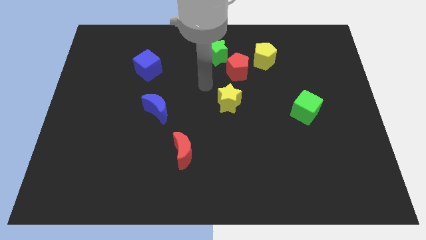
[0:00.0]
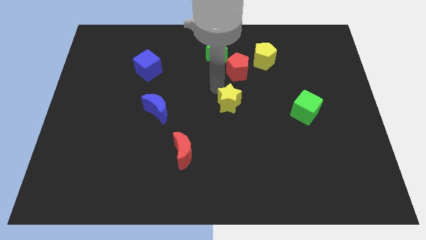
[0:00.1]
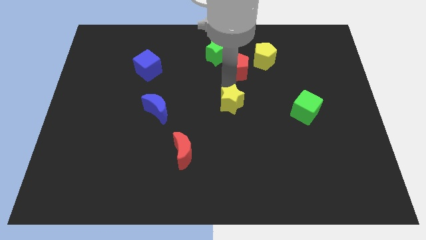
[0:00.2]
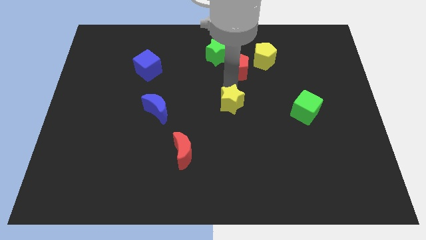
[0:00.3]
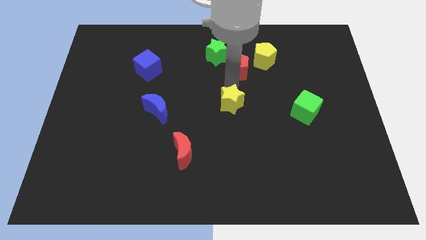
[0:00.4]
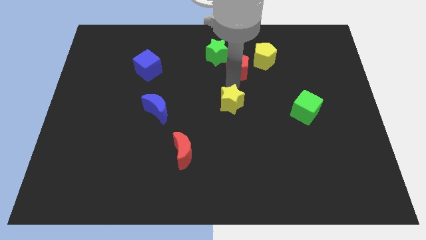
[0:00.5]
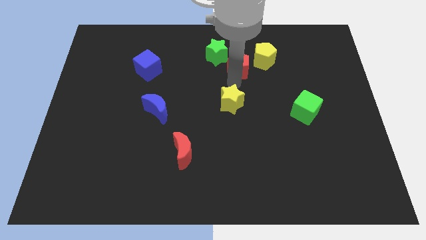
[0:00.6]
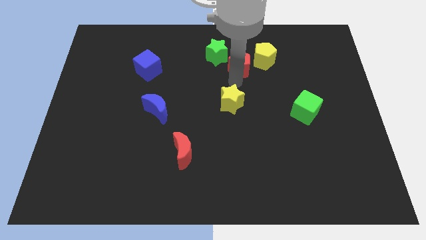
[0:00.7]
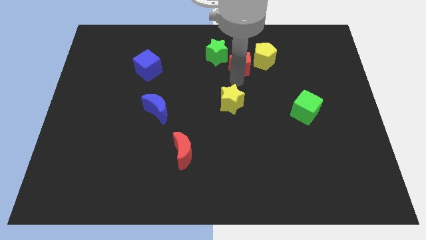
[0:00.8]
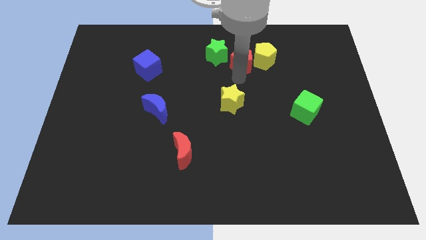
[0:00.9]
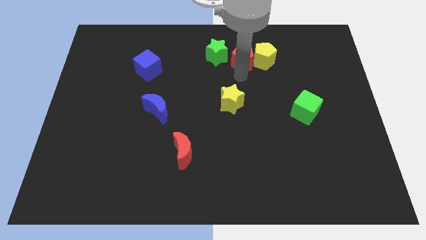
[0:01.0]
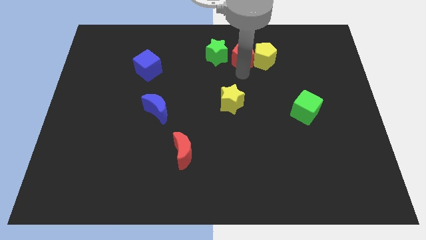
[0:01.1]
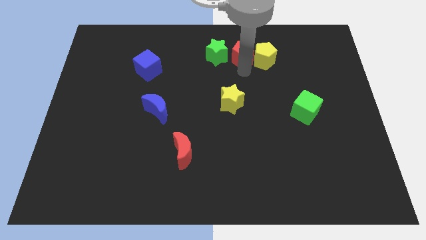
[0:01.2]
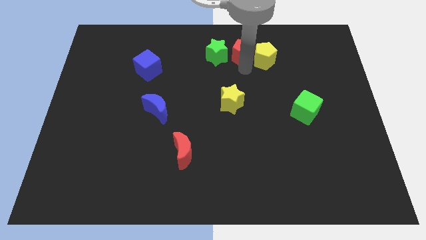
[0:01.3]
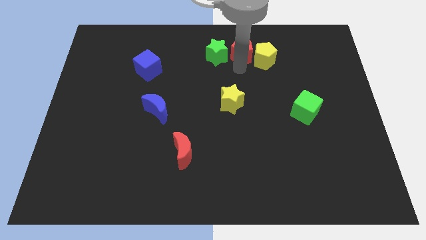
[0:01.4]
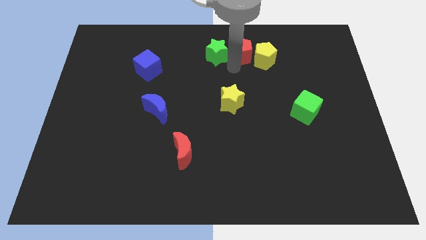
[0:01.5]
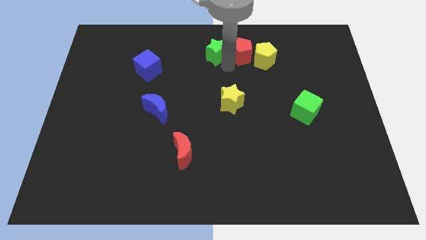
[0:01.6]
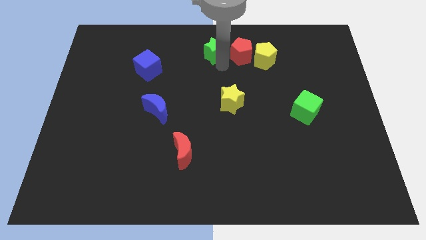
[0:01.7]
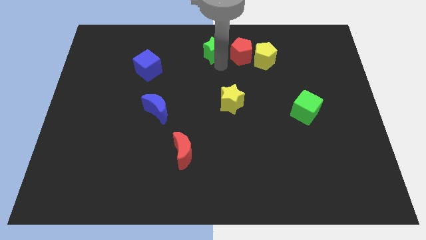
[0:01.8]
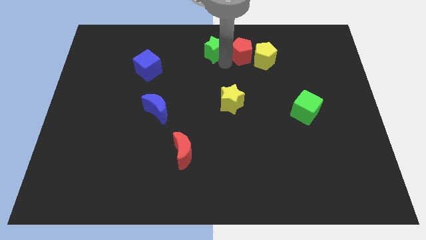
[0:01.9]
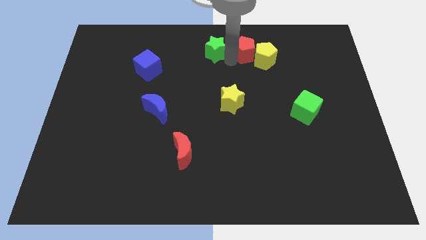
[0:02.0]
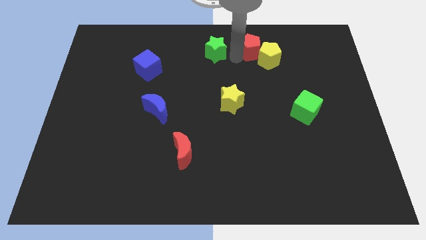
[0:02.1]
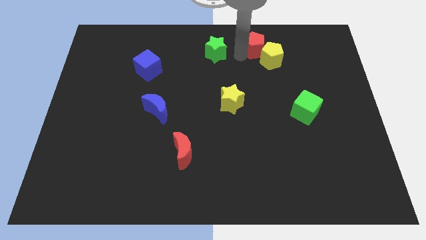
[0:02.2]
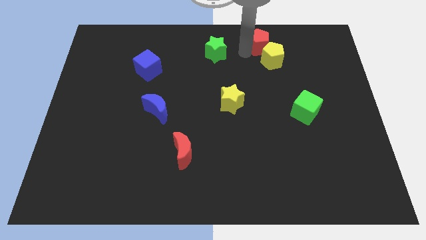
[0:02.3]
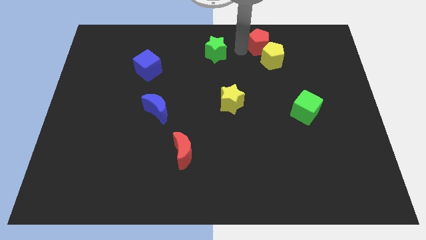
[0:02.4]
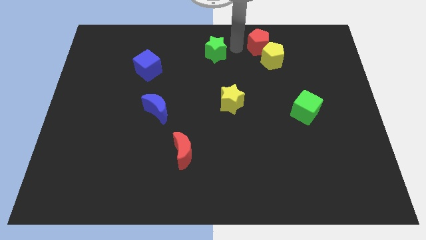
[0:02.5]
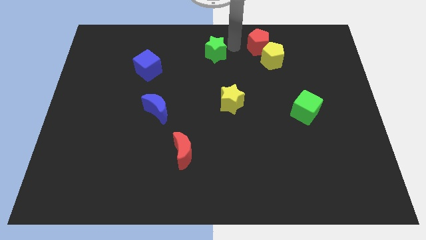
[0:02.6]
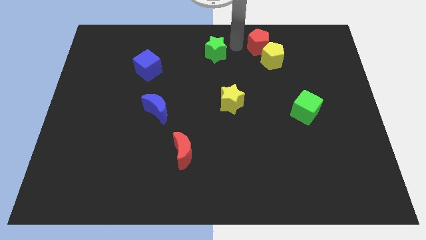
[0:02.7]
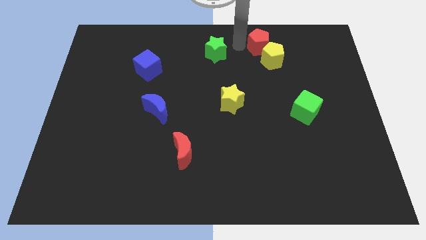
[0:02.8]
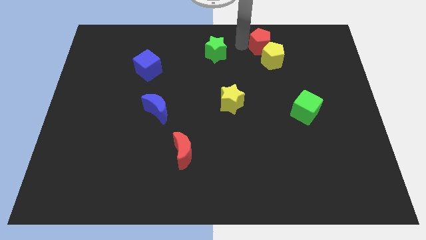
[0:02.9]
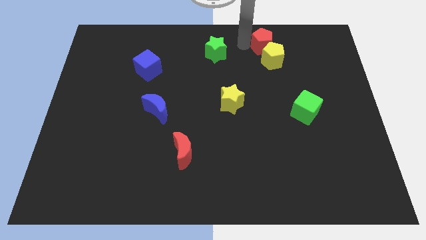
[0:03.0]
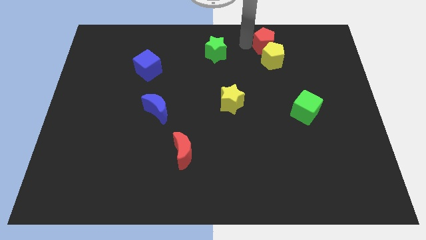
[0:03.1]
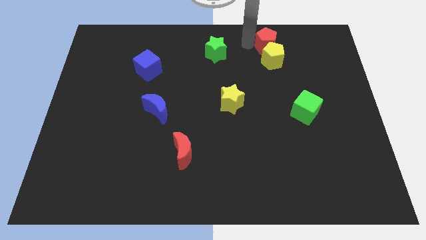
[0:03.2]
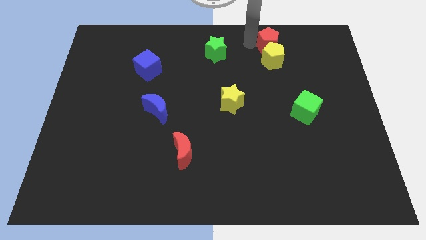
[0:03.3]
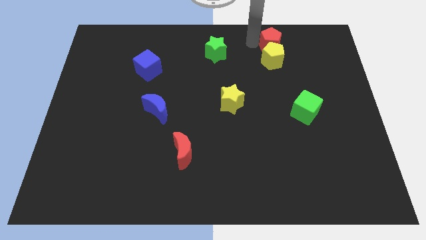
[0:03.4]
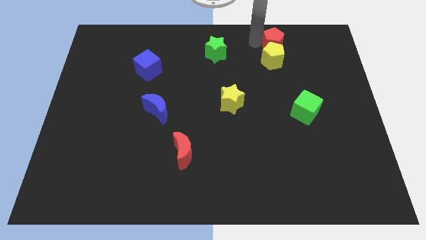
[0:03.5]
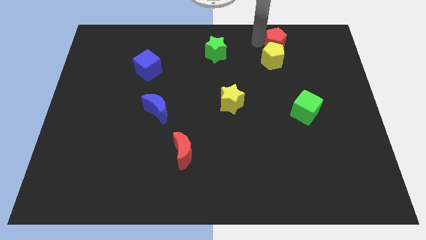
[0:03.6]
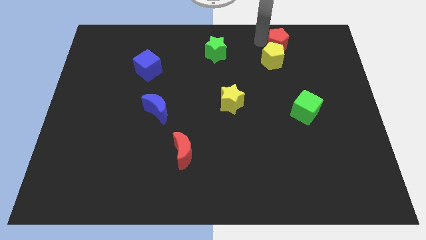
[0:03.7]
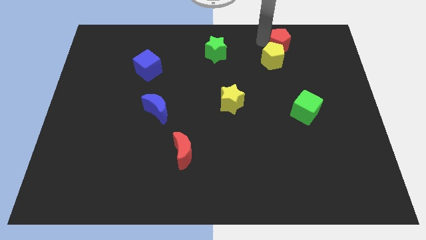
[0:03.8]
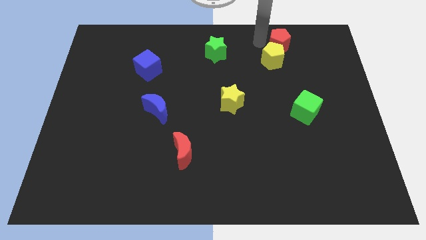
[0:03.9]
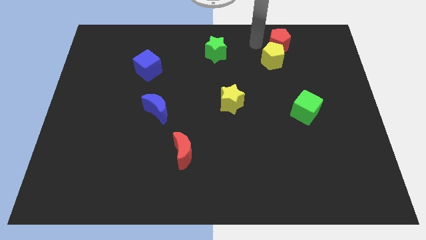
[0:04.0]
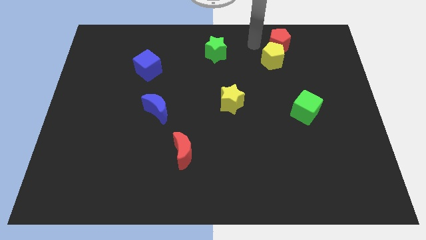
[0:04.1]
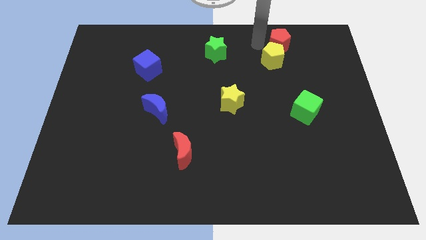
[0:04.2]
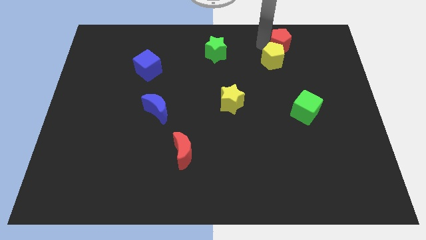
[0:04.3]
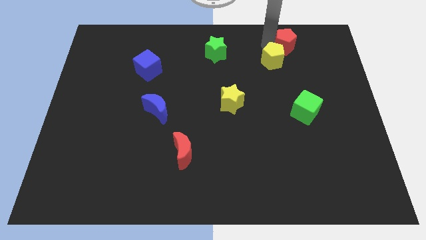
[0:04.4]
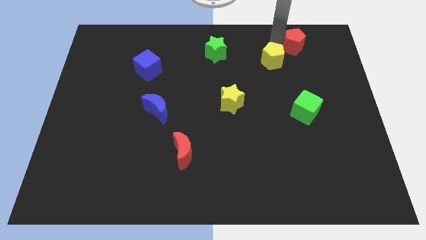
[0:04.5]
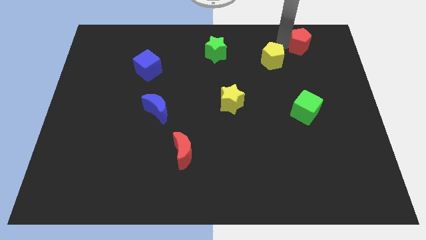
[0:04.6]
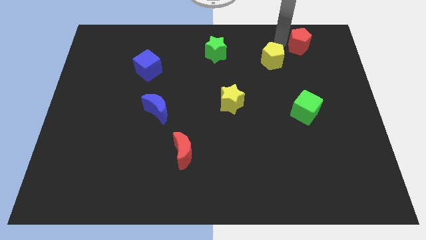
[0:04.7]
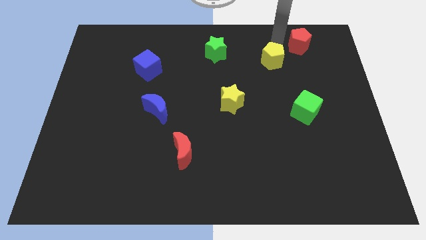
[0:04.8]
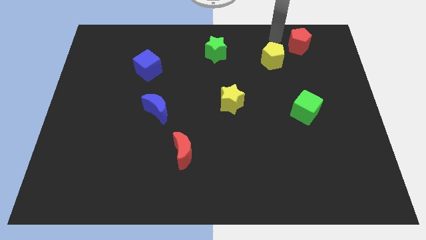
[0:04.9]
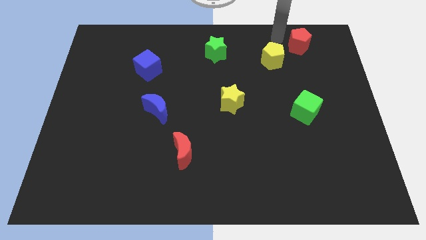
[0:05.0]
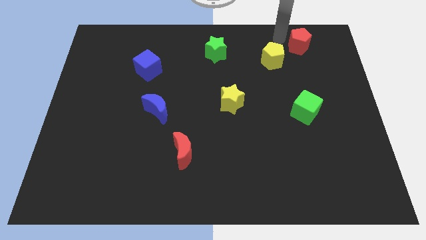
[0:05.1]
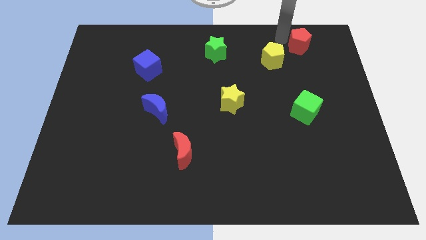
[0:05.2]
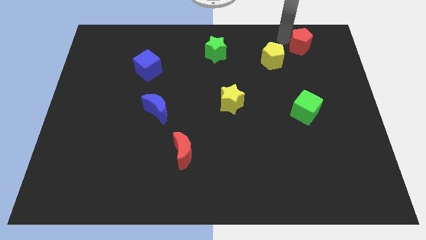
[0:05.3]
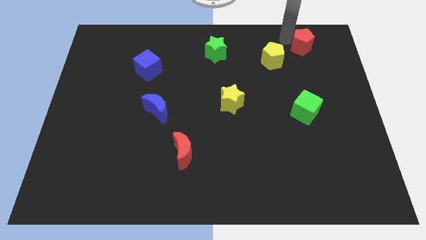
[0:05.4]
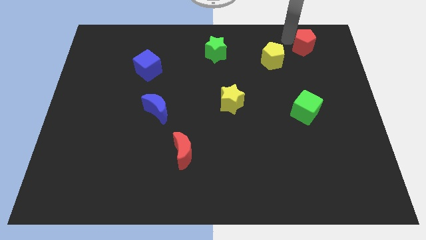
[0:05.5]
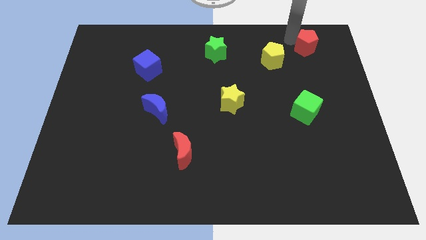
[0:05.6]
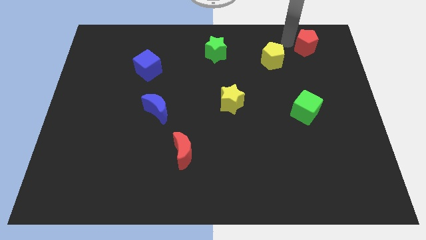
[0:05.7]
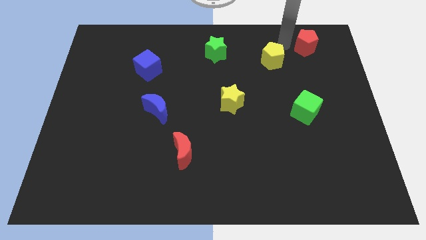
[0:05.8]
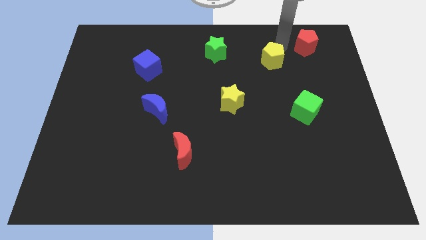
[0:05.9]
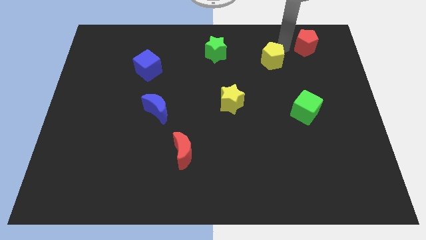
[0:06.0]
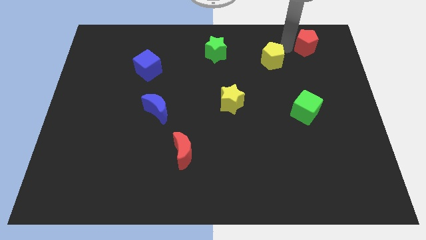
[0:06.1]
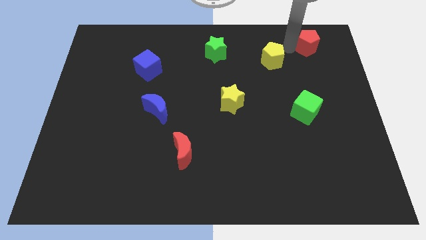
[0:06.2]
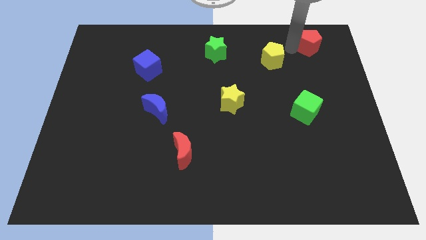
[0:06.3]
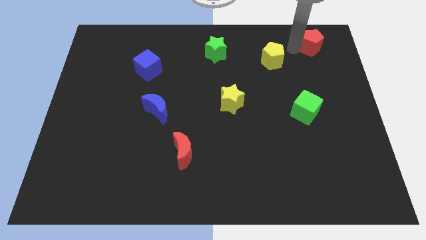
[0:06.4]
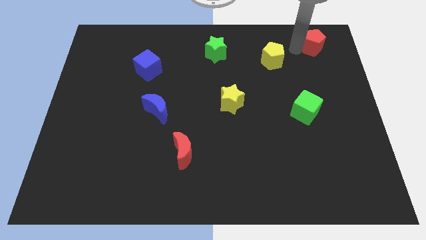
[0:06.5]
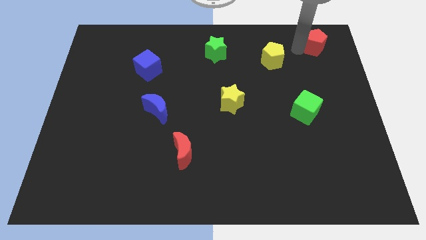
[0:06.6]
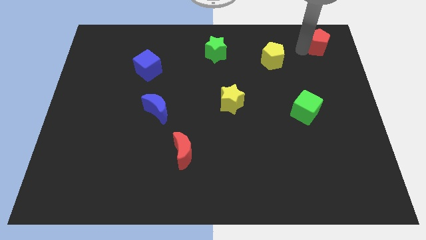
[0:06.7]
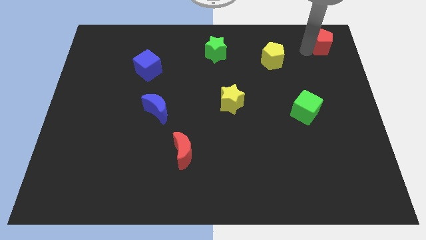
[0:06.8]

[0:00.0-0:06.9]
push the red pentagon to the upper right corner
